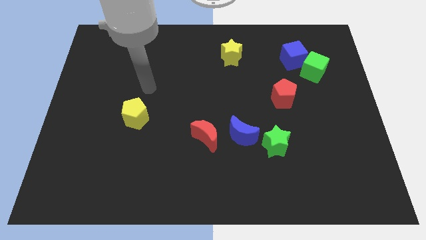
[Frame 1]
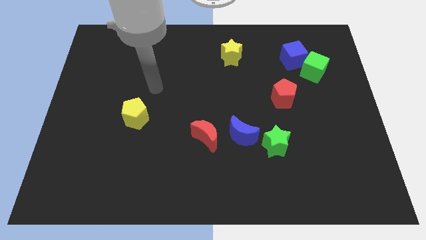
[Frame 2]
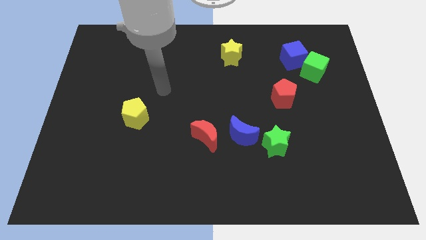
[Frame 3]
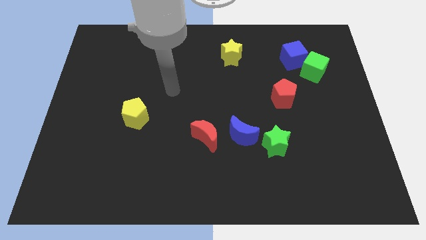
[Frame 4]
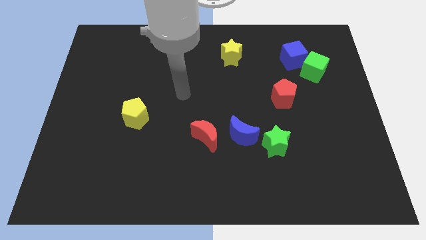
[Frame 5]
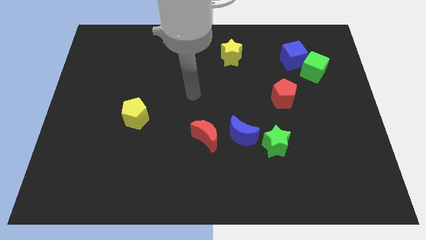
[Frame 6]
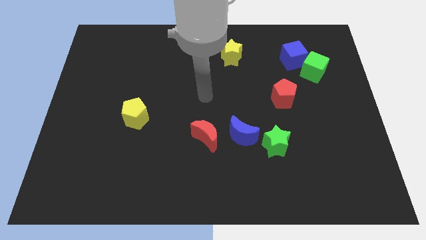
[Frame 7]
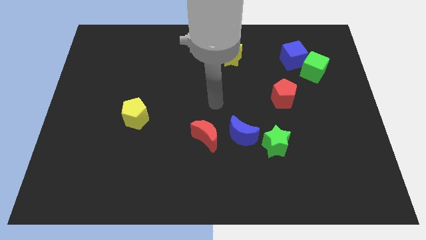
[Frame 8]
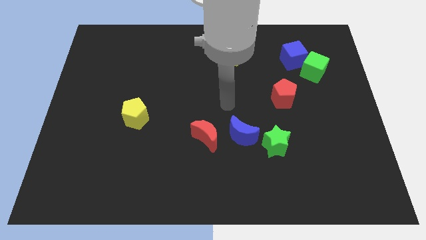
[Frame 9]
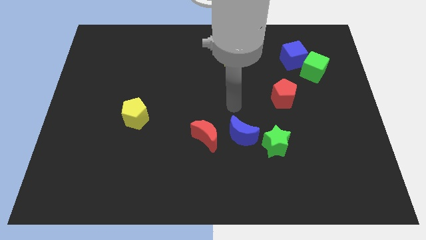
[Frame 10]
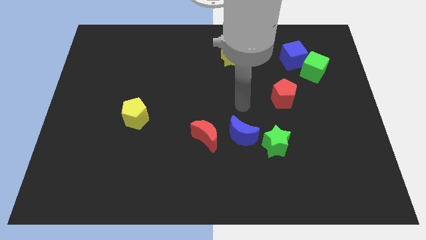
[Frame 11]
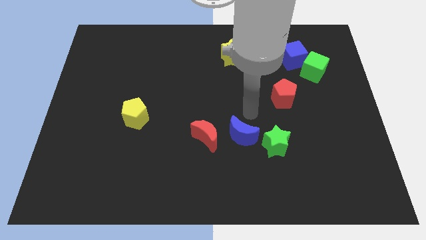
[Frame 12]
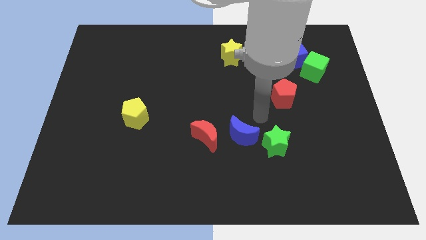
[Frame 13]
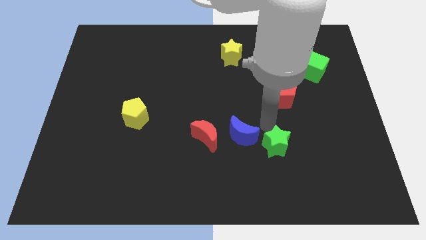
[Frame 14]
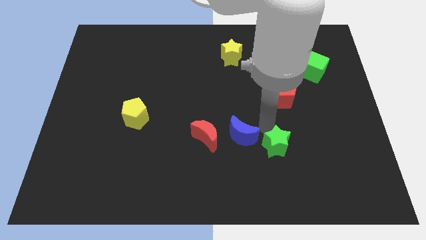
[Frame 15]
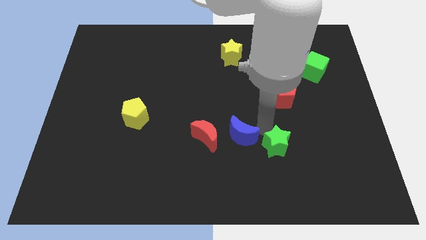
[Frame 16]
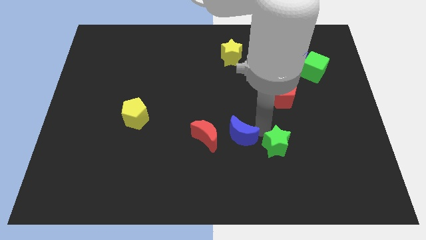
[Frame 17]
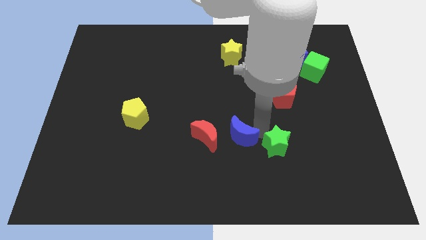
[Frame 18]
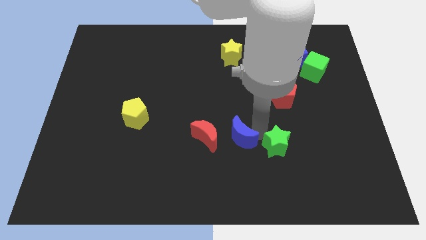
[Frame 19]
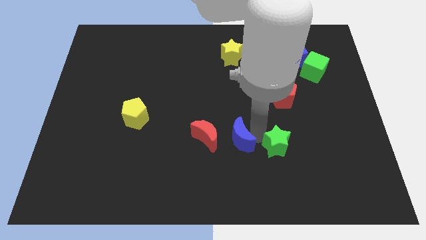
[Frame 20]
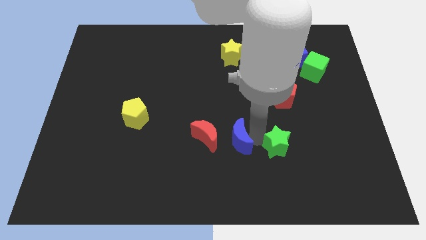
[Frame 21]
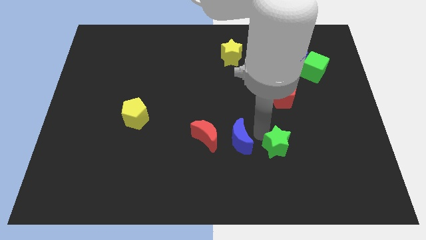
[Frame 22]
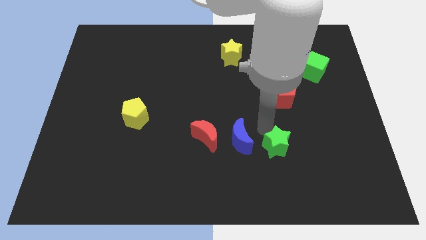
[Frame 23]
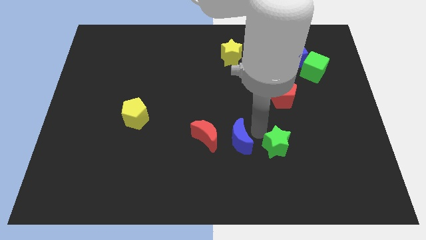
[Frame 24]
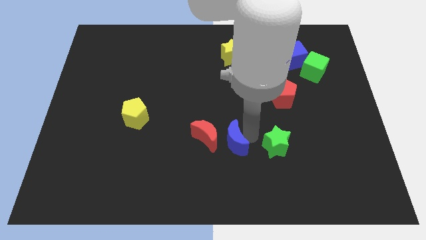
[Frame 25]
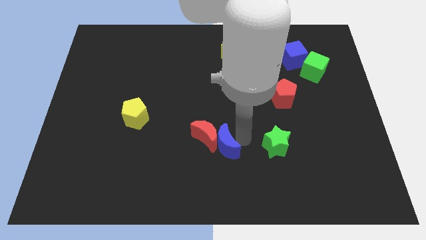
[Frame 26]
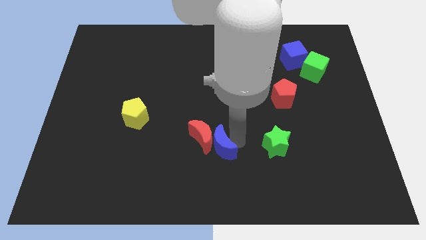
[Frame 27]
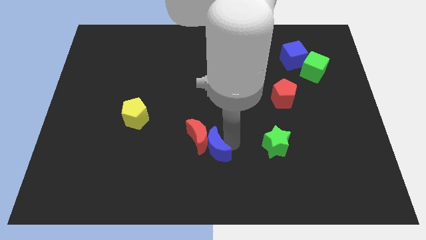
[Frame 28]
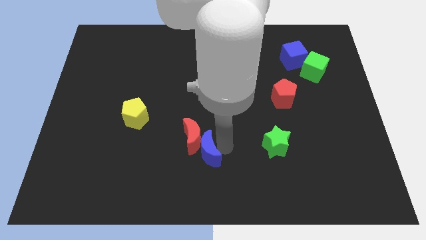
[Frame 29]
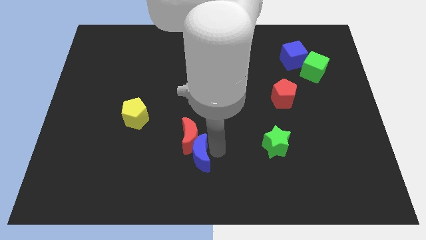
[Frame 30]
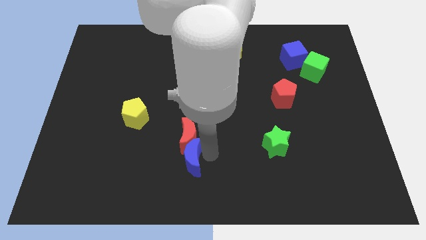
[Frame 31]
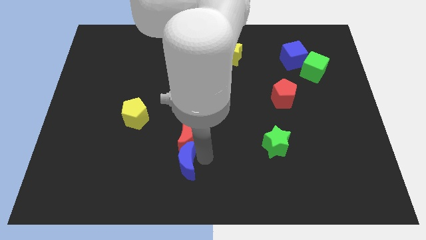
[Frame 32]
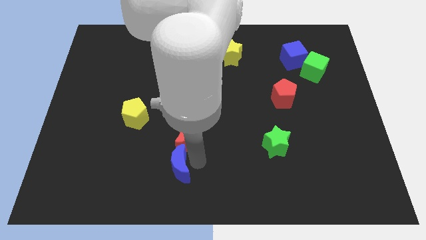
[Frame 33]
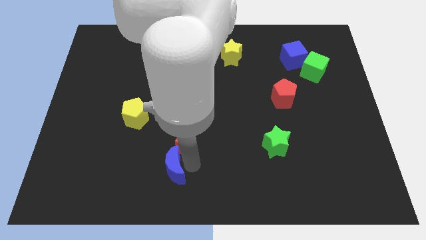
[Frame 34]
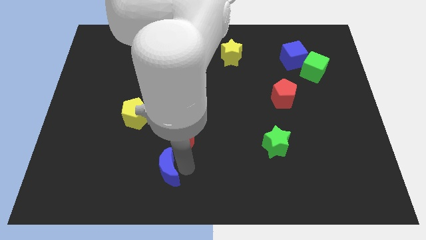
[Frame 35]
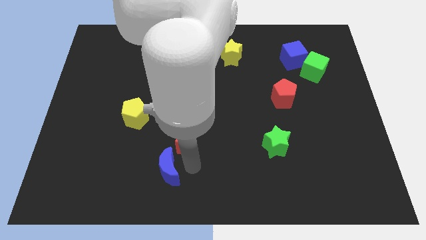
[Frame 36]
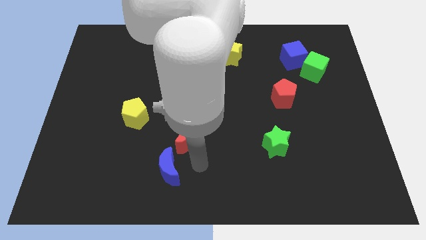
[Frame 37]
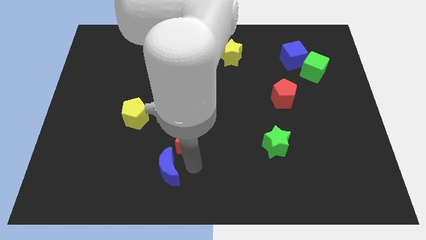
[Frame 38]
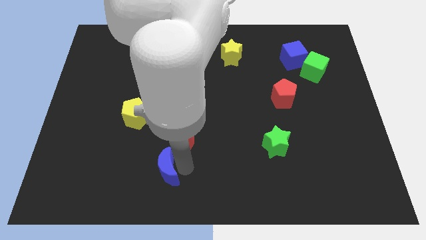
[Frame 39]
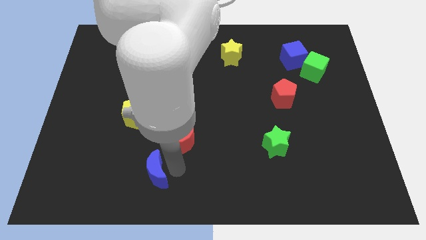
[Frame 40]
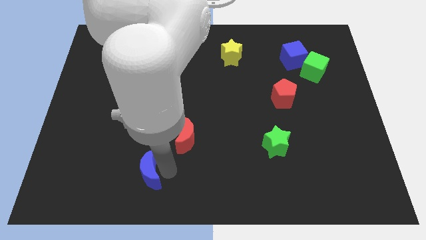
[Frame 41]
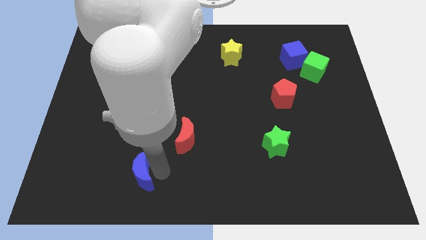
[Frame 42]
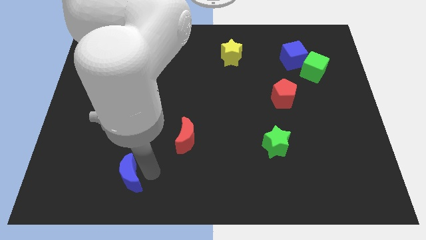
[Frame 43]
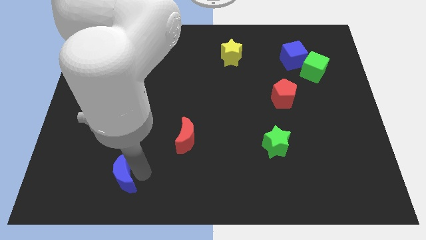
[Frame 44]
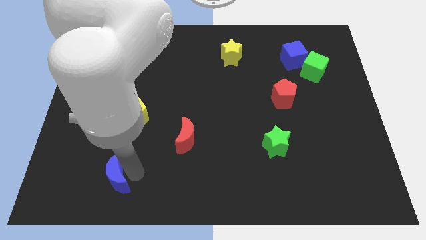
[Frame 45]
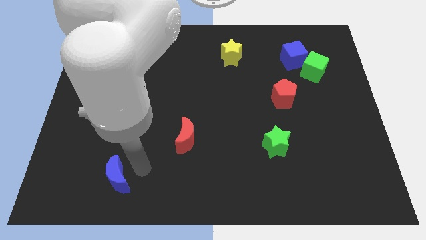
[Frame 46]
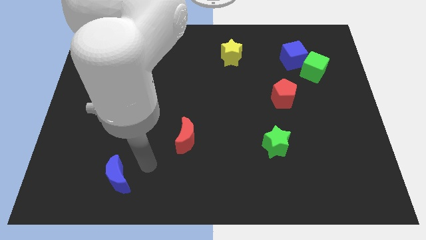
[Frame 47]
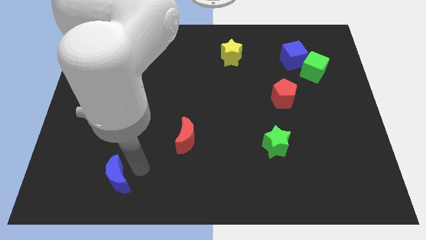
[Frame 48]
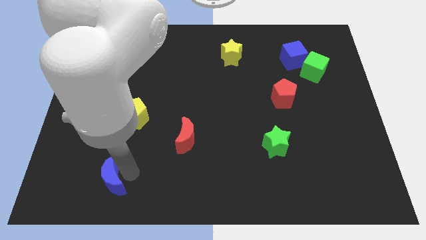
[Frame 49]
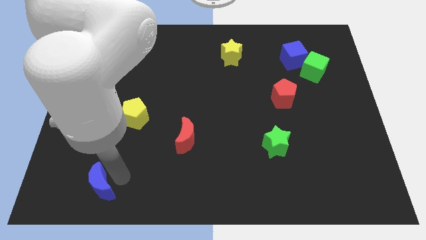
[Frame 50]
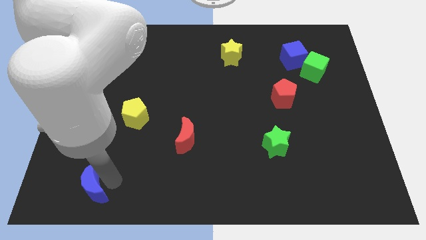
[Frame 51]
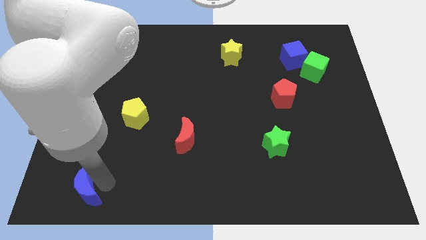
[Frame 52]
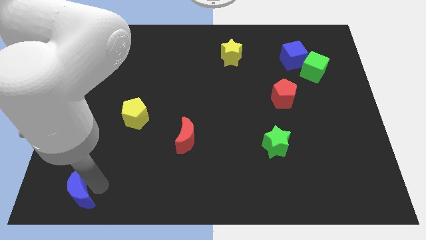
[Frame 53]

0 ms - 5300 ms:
move the blue moon to the lower left corner

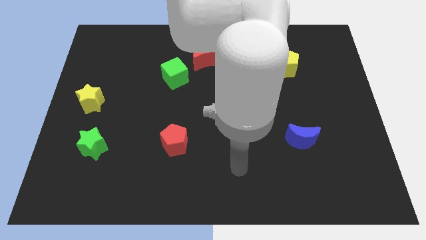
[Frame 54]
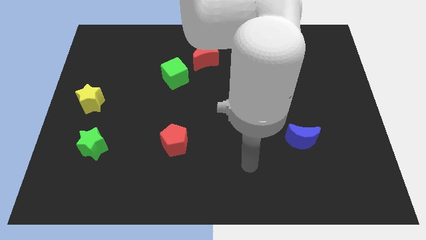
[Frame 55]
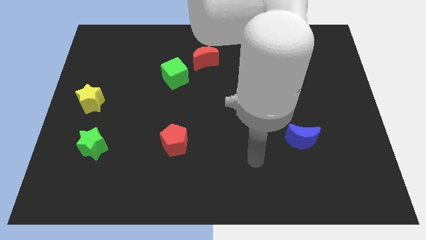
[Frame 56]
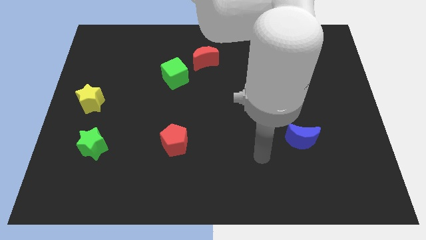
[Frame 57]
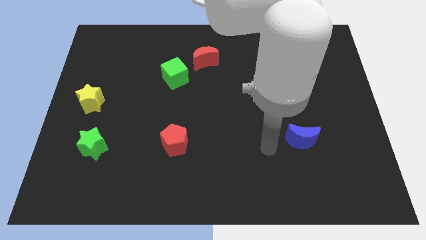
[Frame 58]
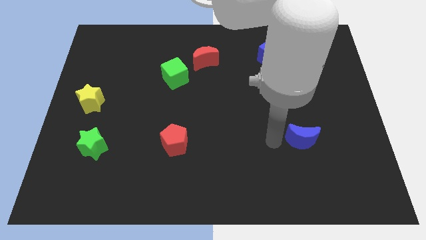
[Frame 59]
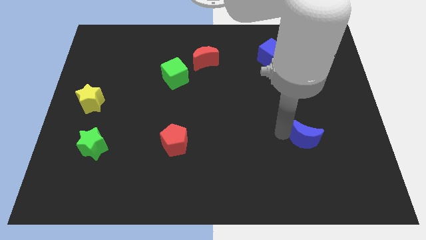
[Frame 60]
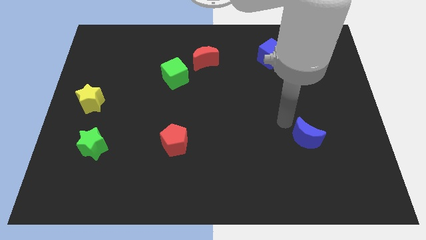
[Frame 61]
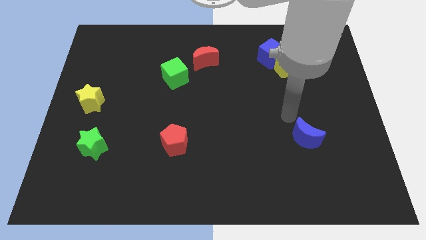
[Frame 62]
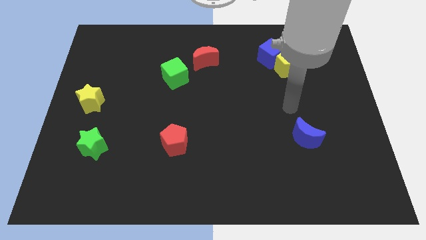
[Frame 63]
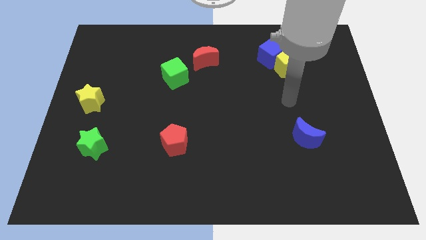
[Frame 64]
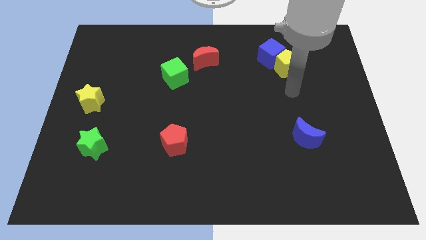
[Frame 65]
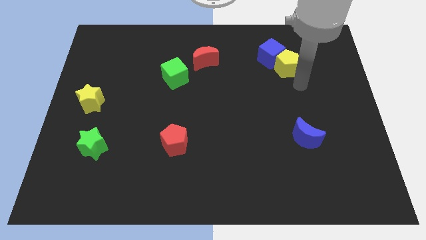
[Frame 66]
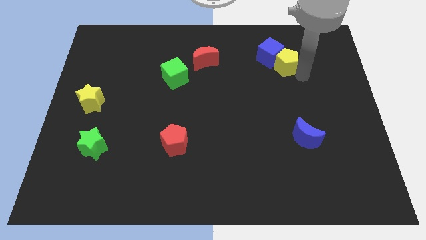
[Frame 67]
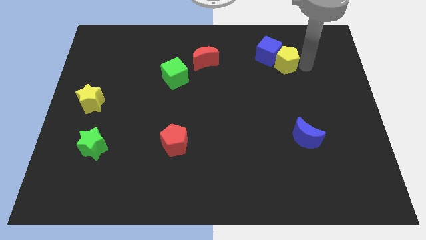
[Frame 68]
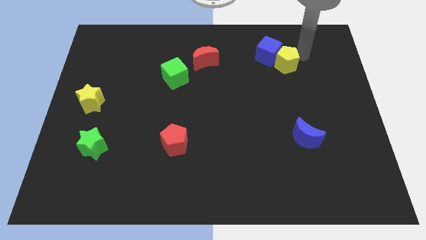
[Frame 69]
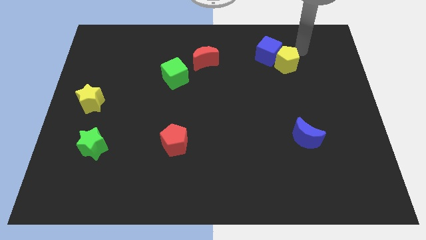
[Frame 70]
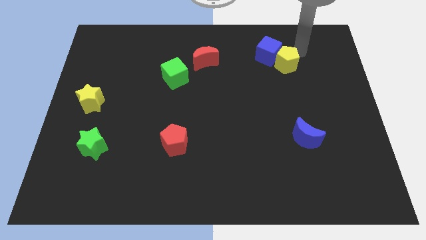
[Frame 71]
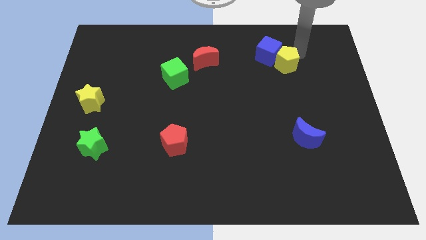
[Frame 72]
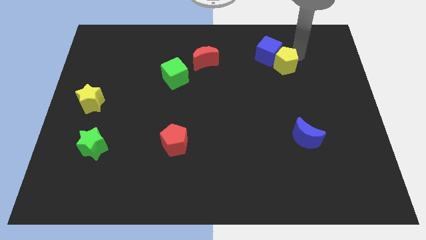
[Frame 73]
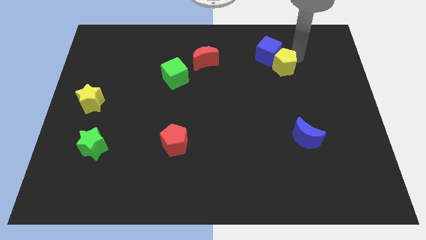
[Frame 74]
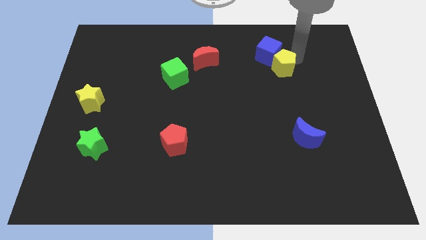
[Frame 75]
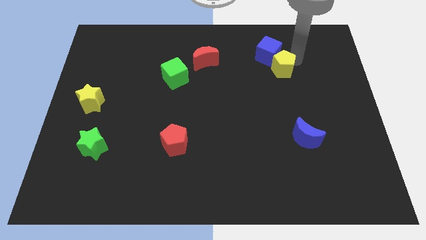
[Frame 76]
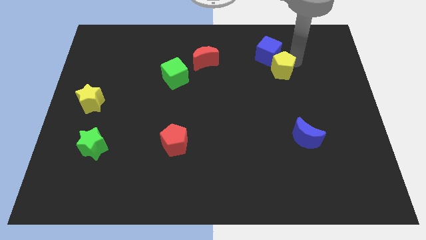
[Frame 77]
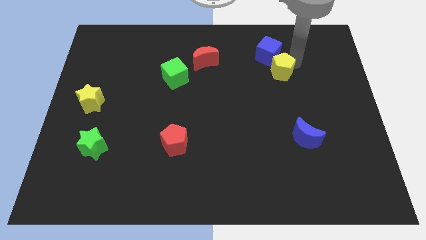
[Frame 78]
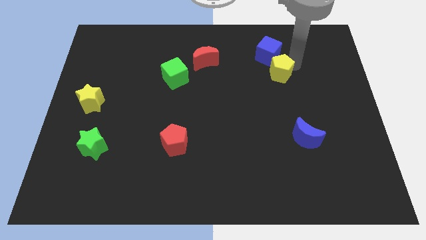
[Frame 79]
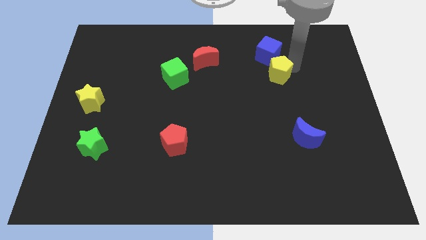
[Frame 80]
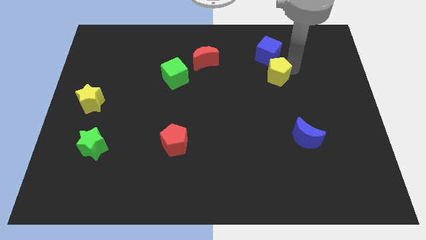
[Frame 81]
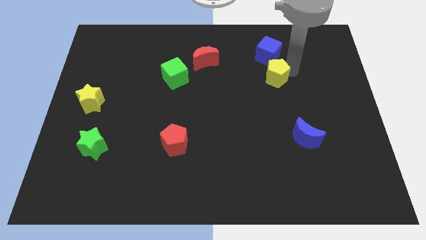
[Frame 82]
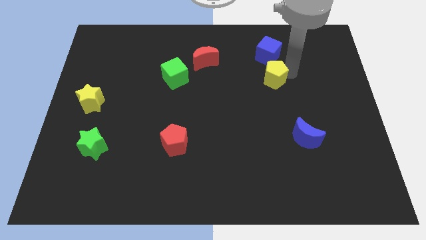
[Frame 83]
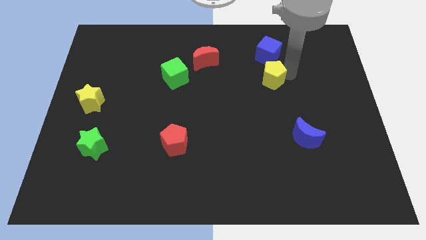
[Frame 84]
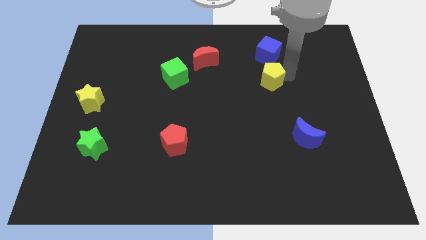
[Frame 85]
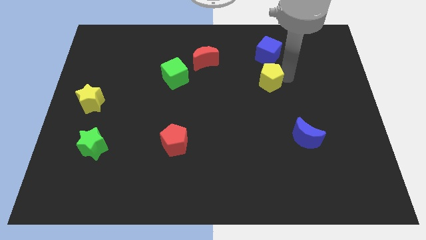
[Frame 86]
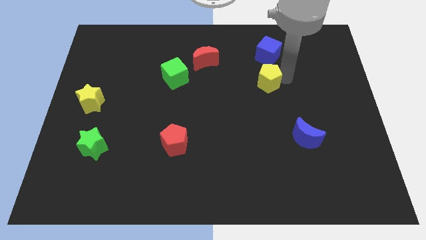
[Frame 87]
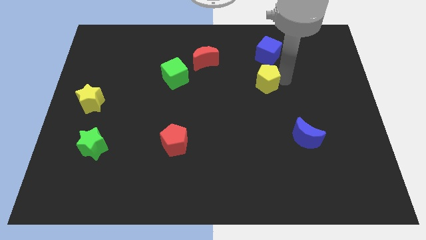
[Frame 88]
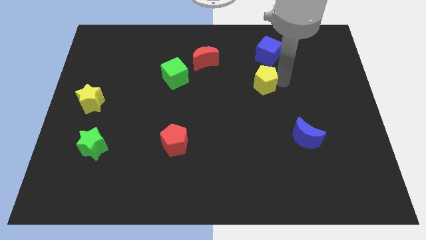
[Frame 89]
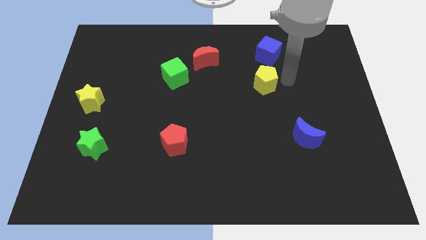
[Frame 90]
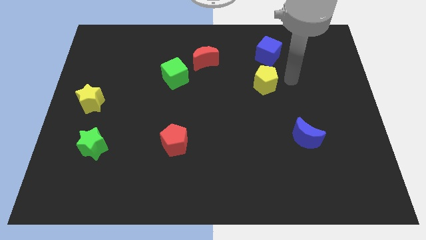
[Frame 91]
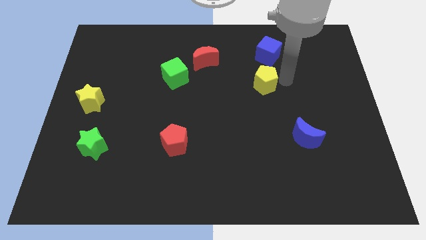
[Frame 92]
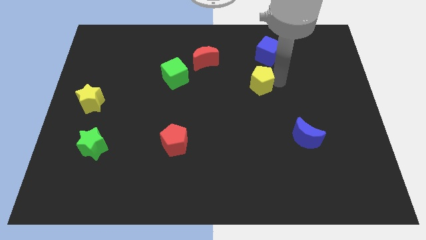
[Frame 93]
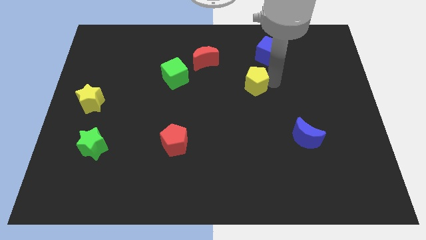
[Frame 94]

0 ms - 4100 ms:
push the yellow pentagon to the middle of the board
